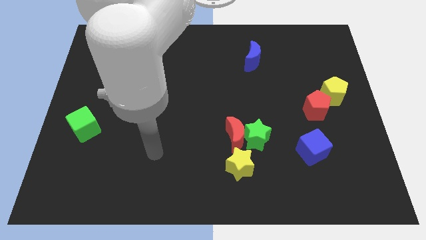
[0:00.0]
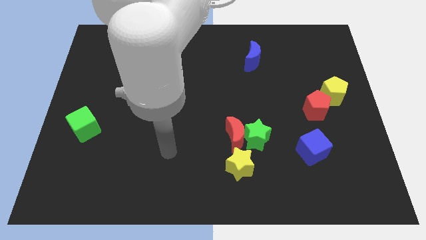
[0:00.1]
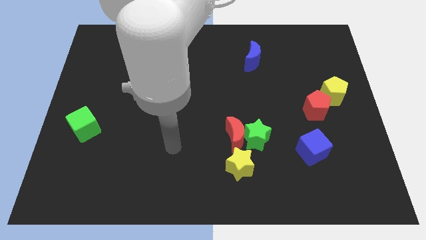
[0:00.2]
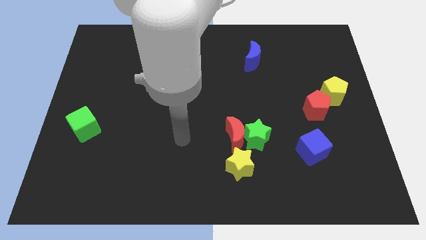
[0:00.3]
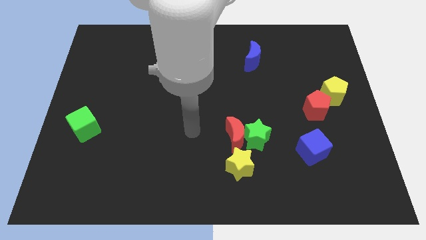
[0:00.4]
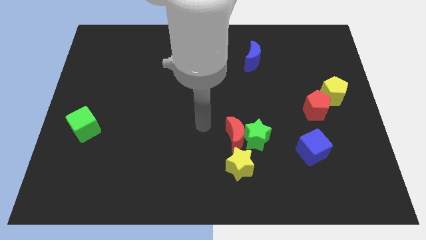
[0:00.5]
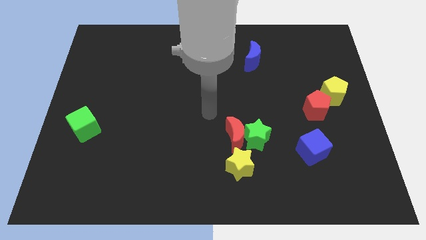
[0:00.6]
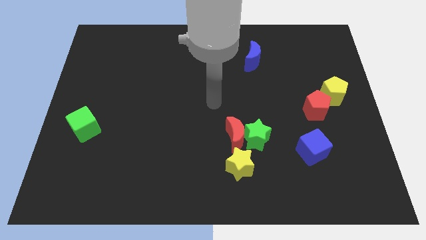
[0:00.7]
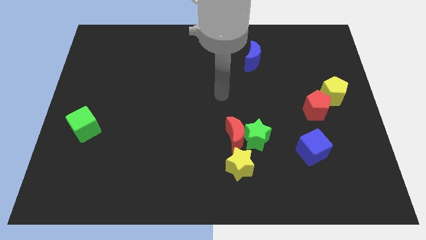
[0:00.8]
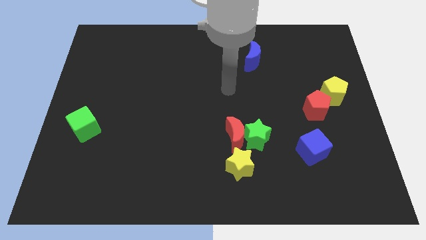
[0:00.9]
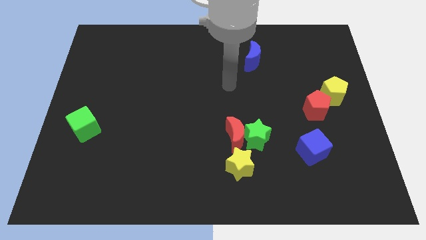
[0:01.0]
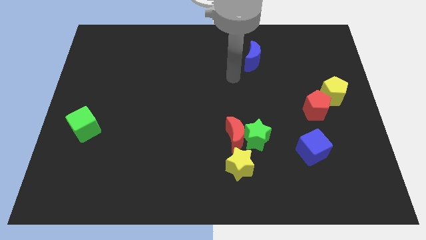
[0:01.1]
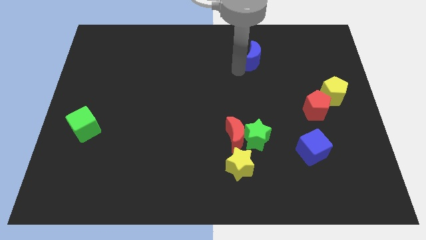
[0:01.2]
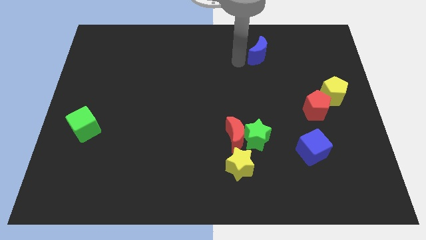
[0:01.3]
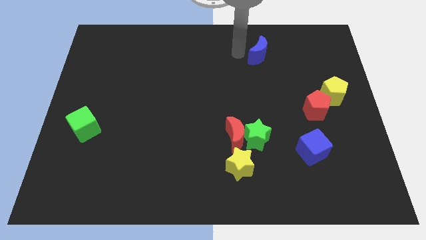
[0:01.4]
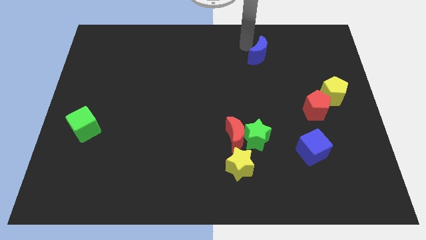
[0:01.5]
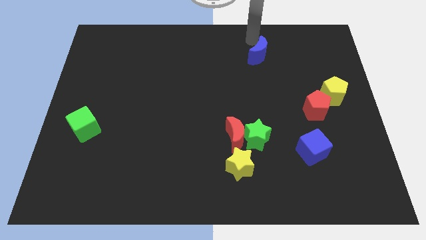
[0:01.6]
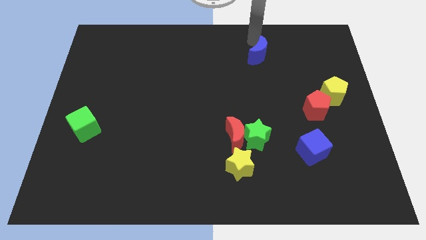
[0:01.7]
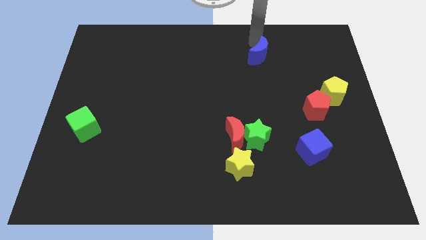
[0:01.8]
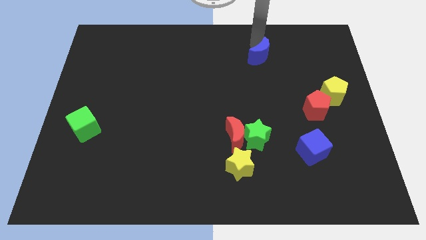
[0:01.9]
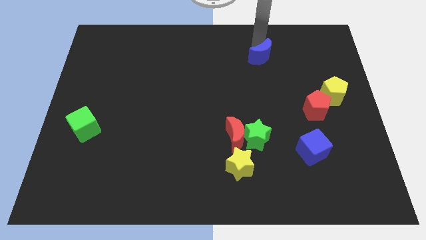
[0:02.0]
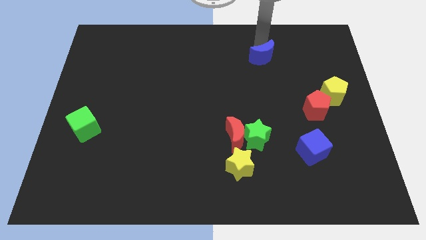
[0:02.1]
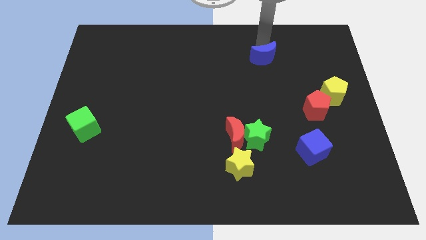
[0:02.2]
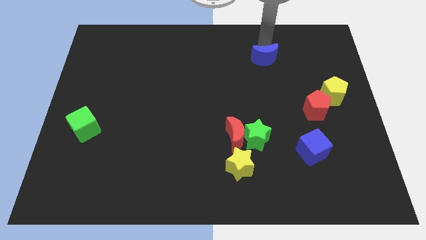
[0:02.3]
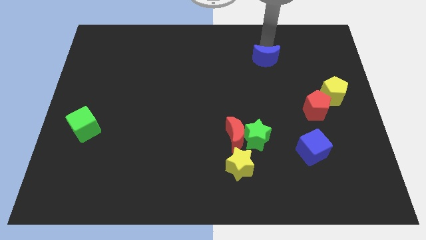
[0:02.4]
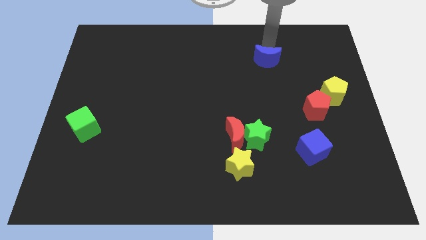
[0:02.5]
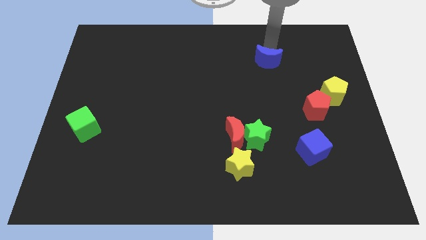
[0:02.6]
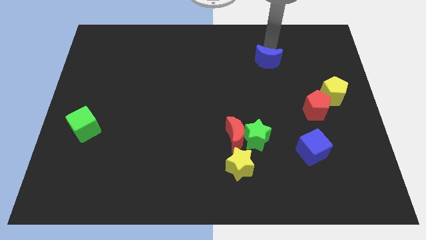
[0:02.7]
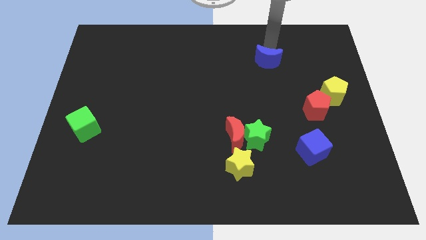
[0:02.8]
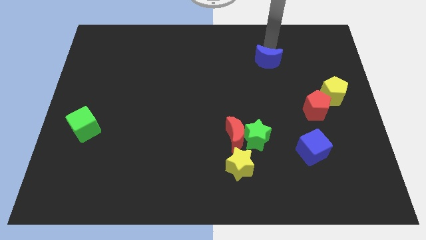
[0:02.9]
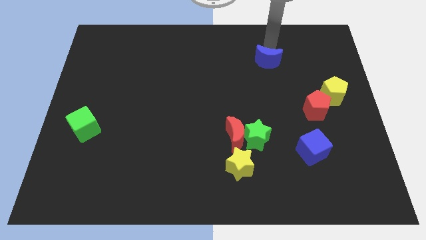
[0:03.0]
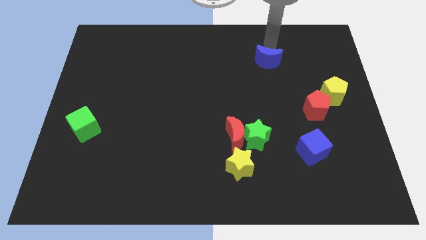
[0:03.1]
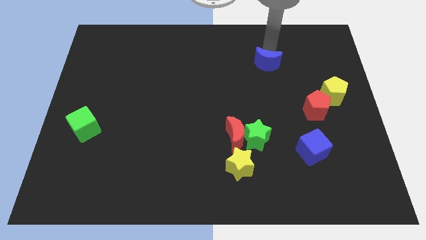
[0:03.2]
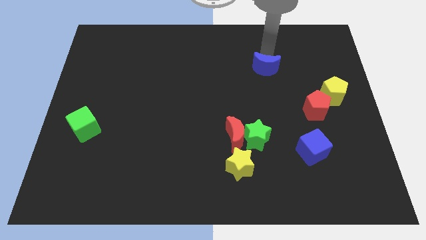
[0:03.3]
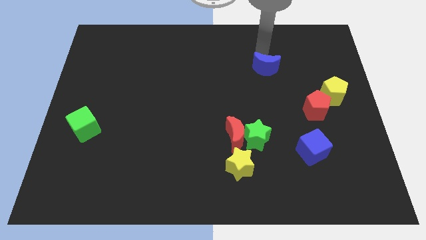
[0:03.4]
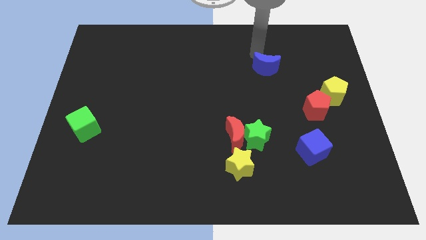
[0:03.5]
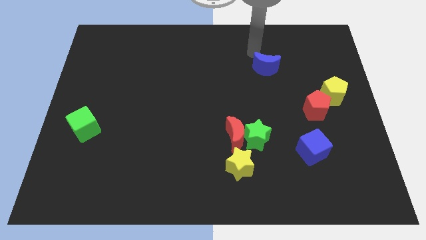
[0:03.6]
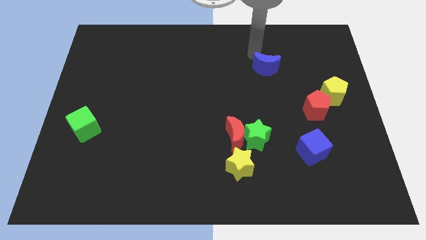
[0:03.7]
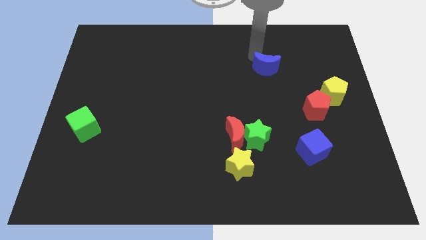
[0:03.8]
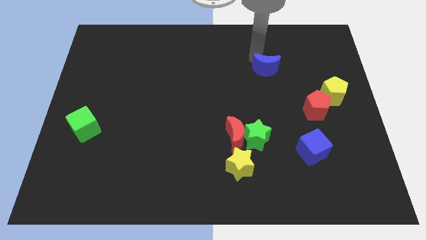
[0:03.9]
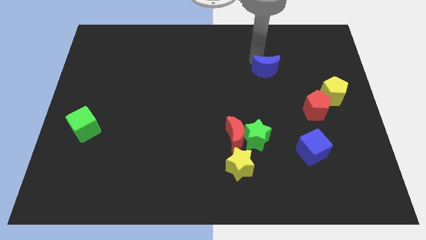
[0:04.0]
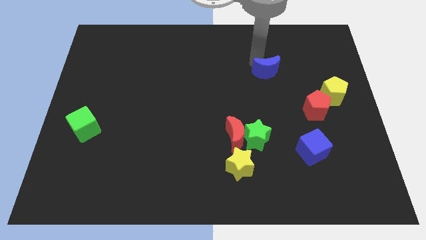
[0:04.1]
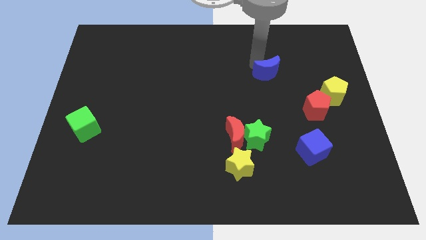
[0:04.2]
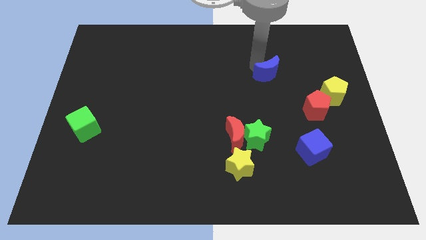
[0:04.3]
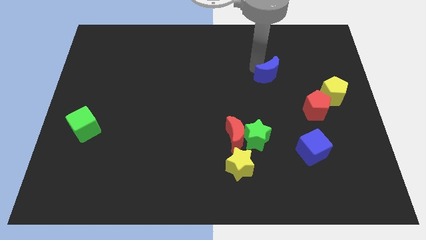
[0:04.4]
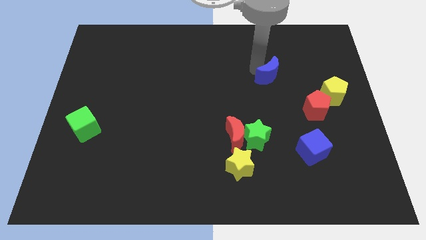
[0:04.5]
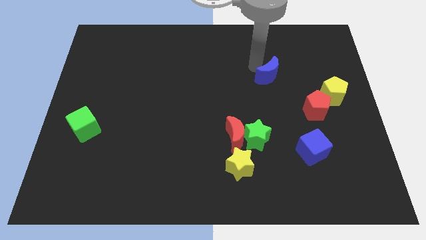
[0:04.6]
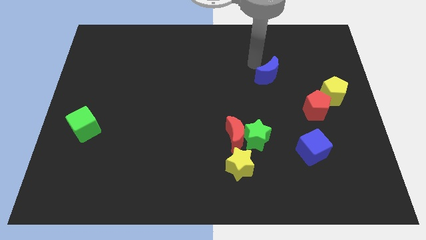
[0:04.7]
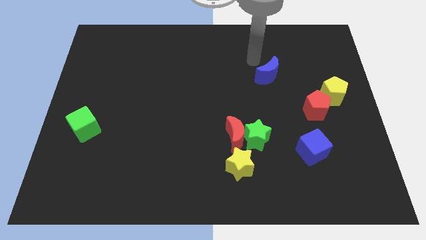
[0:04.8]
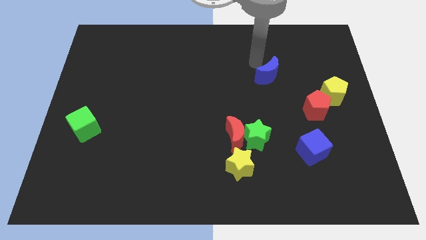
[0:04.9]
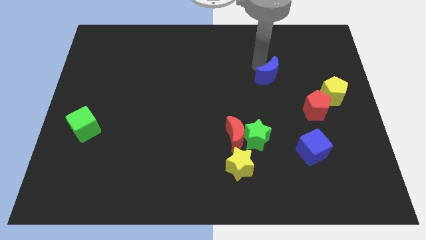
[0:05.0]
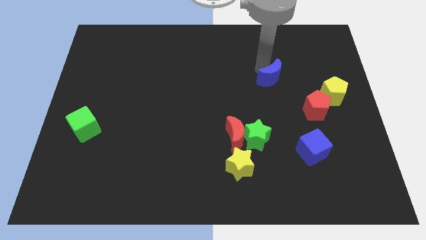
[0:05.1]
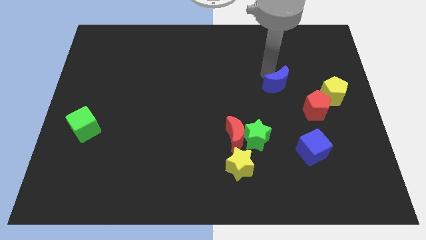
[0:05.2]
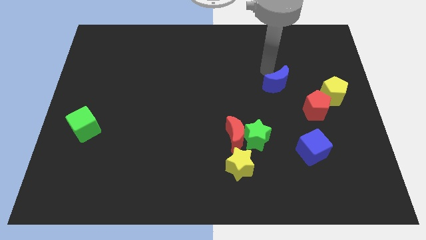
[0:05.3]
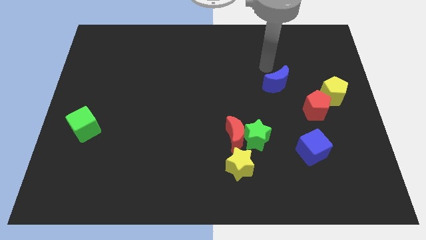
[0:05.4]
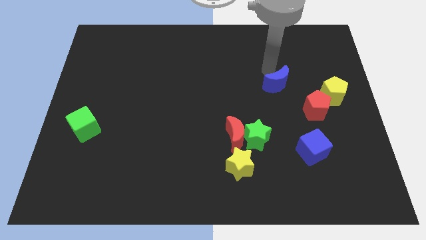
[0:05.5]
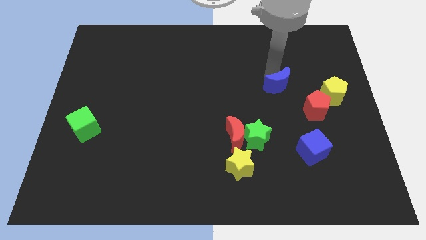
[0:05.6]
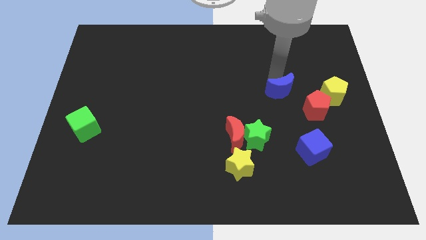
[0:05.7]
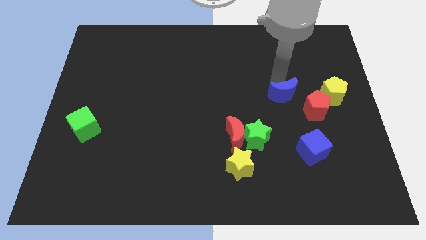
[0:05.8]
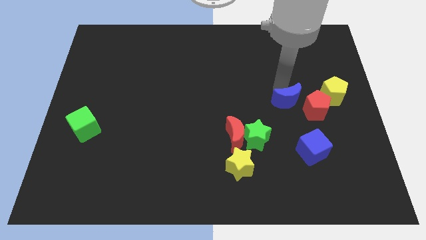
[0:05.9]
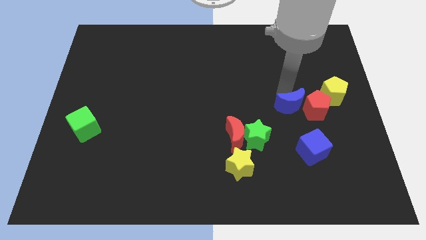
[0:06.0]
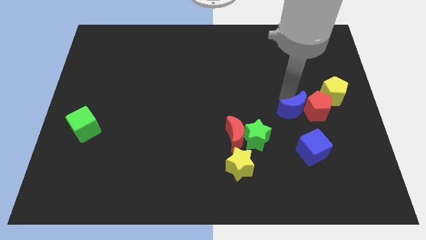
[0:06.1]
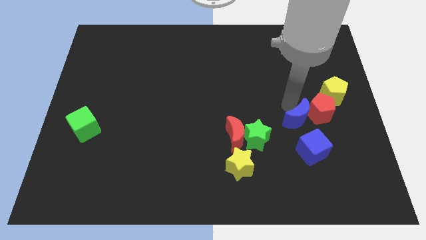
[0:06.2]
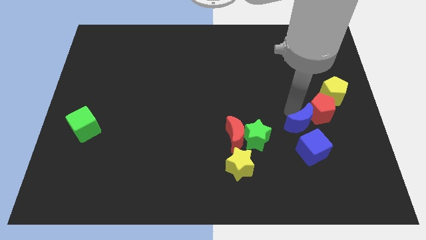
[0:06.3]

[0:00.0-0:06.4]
push the blue moon right of the green star

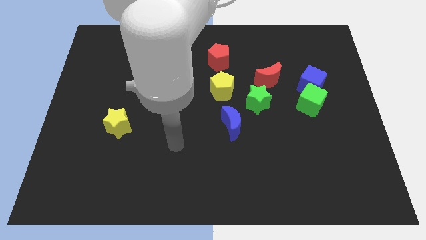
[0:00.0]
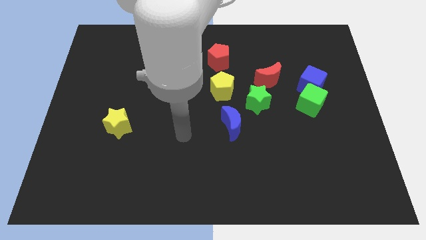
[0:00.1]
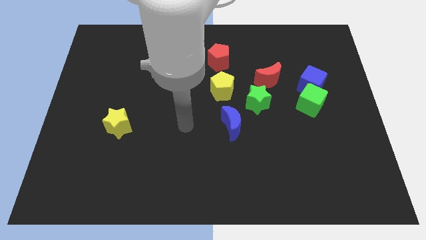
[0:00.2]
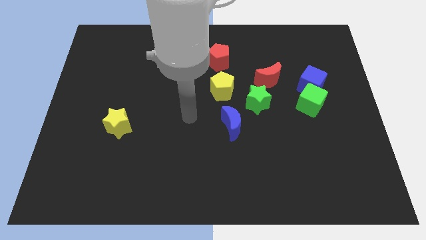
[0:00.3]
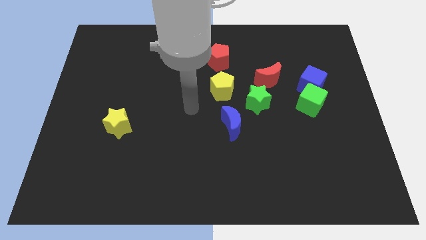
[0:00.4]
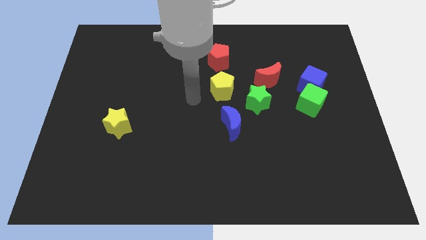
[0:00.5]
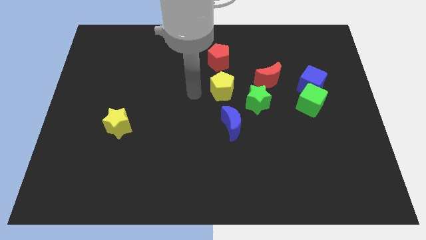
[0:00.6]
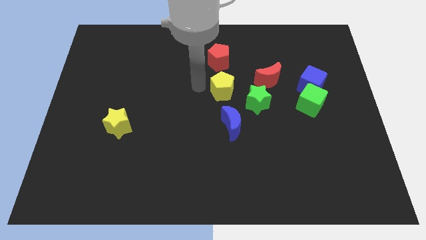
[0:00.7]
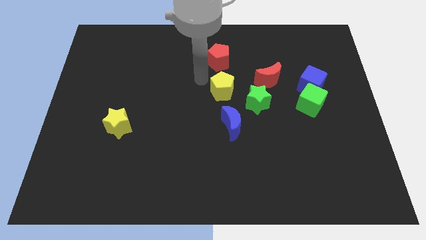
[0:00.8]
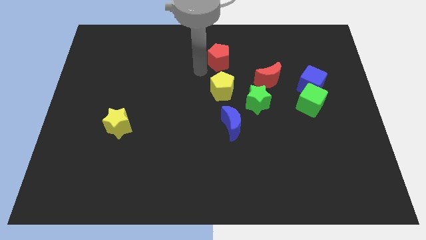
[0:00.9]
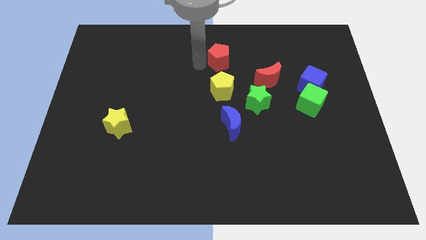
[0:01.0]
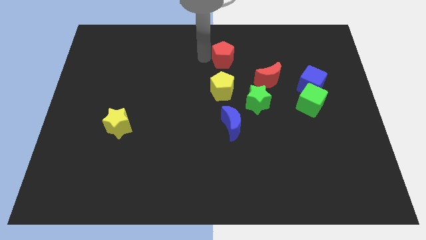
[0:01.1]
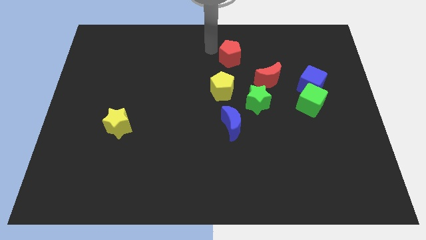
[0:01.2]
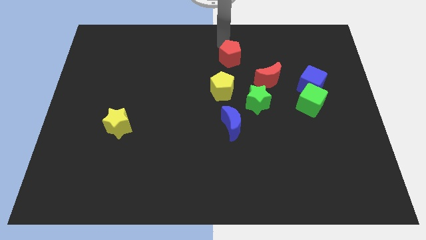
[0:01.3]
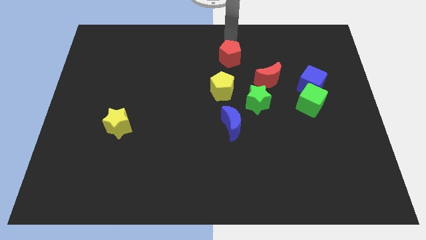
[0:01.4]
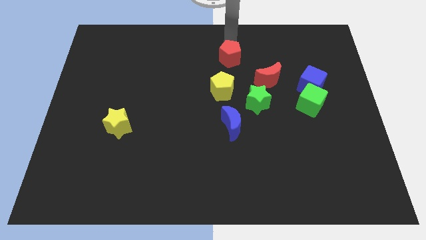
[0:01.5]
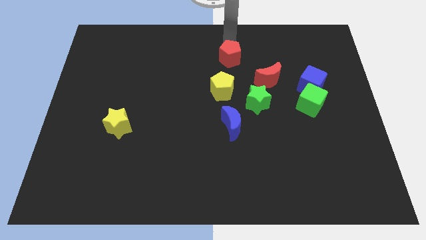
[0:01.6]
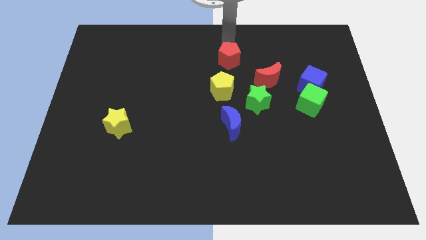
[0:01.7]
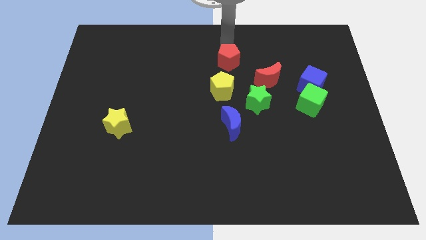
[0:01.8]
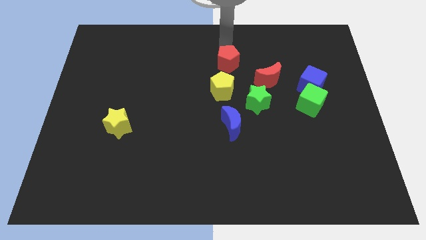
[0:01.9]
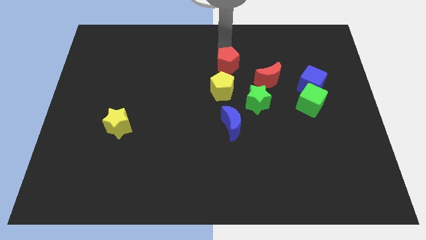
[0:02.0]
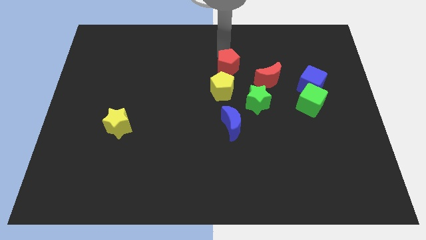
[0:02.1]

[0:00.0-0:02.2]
push the red pentagon just left of the red moon
